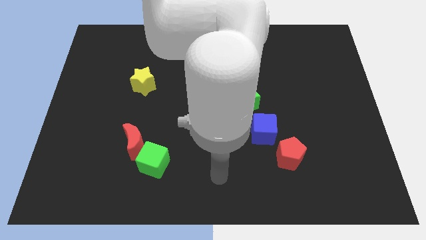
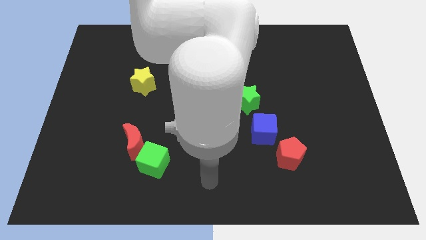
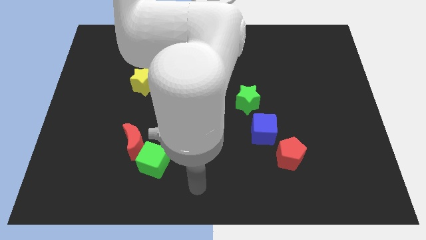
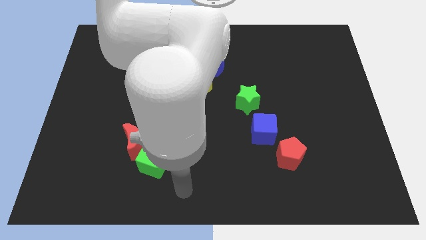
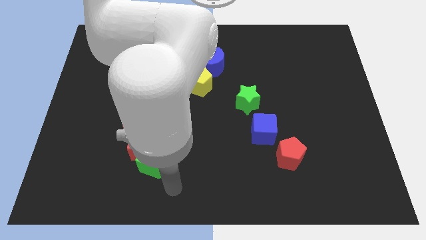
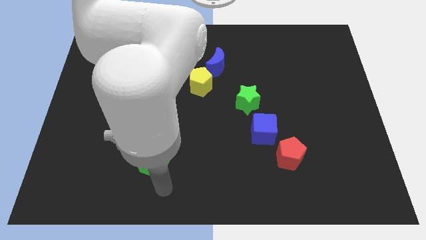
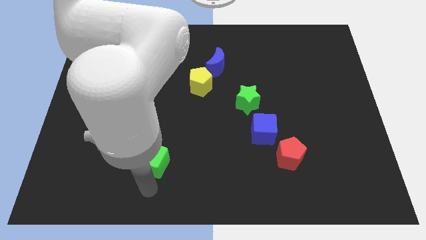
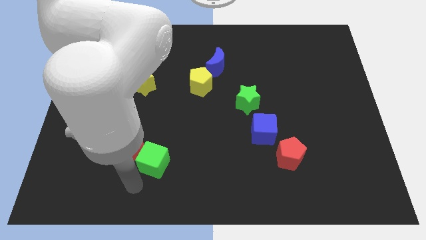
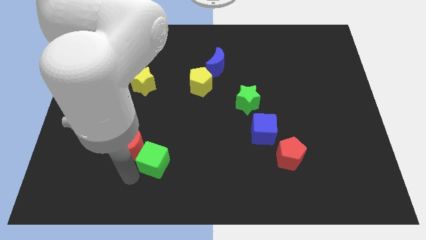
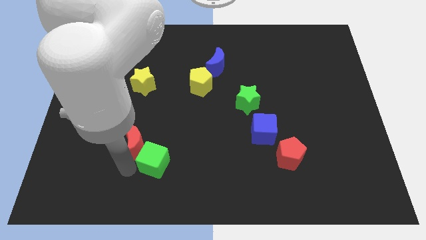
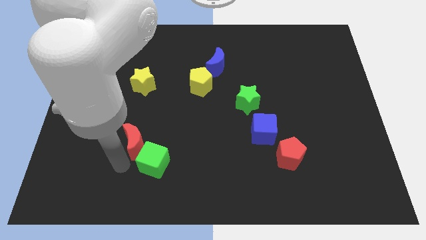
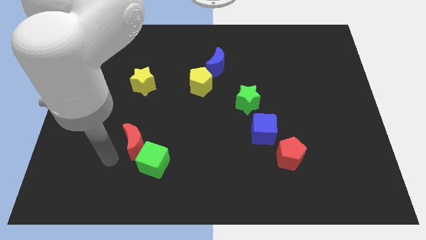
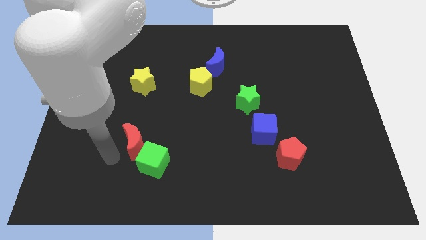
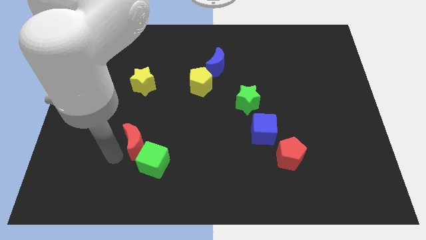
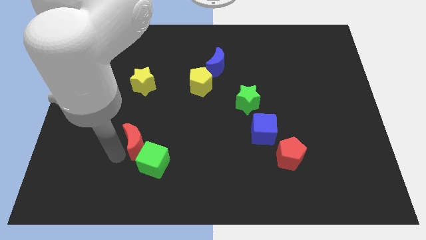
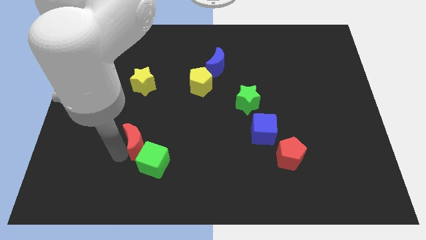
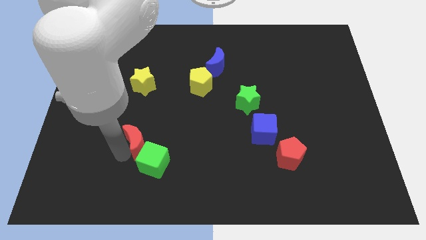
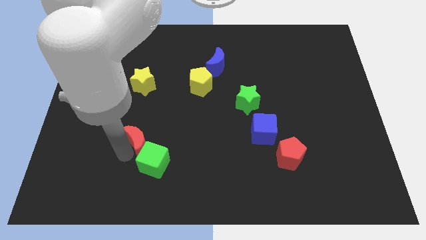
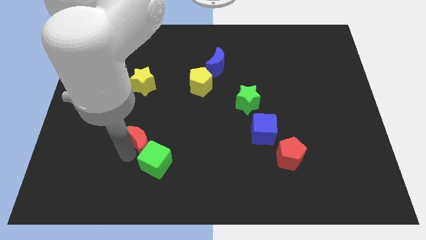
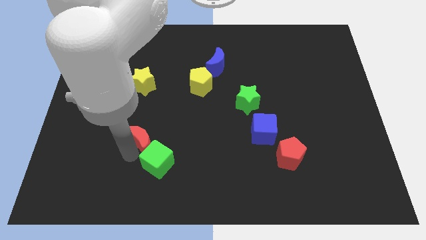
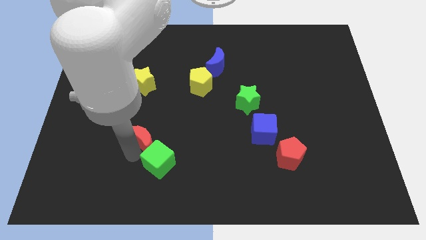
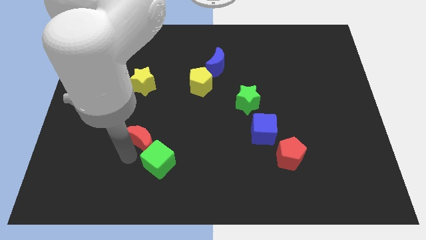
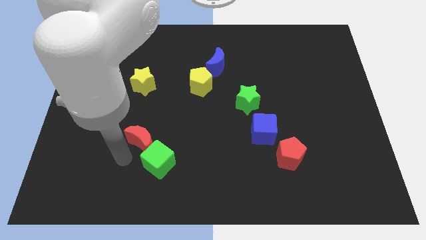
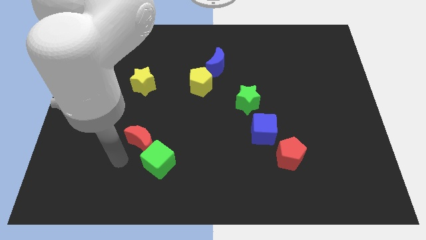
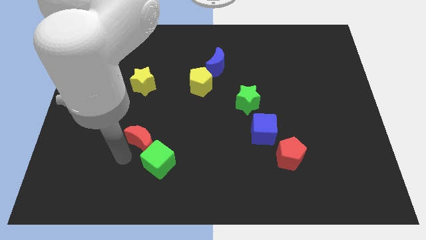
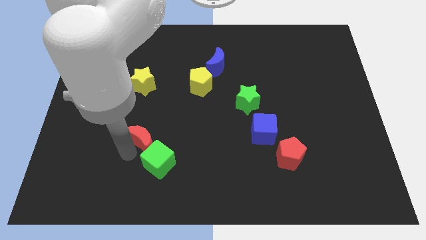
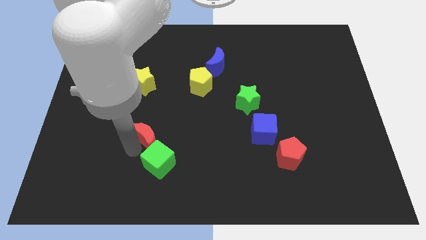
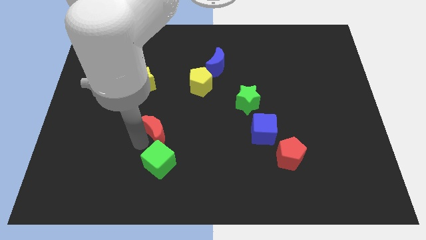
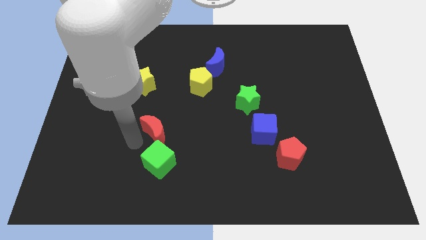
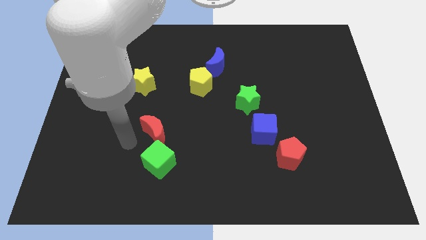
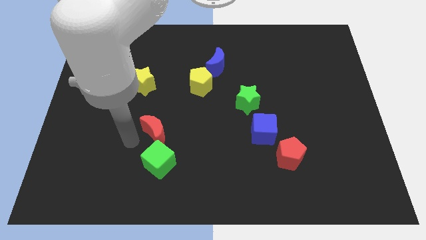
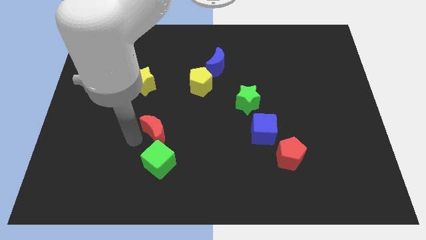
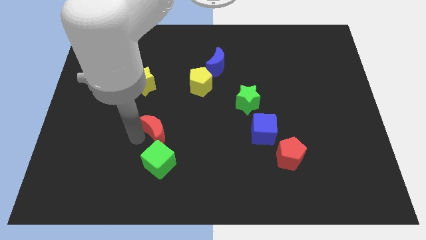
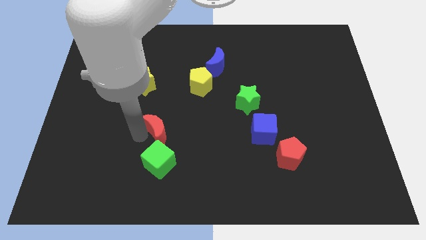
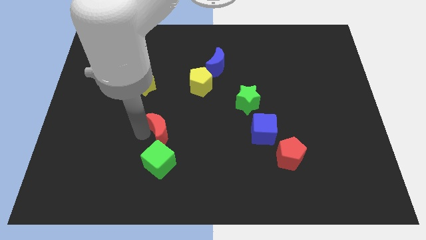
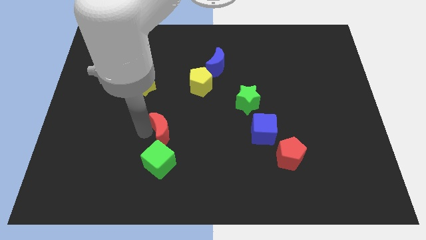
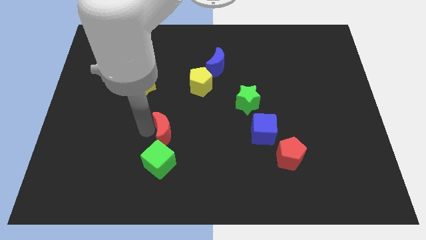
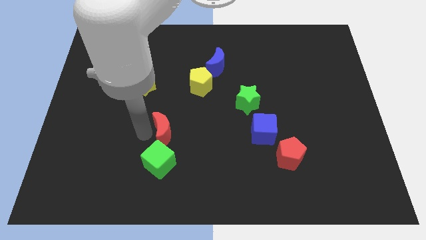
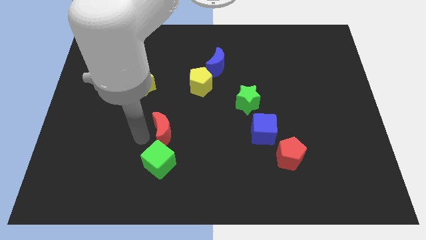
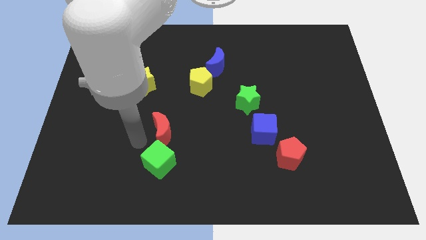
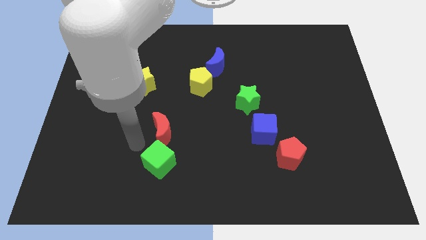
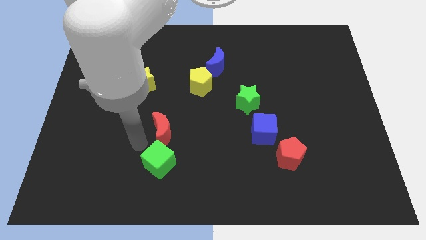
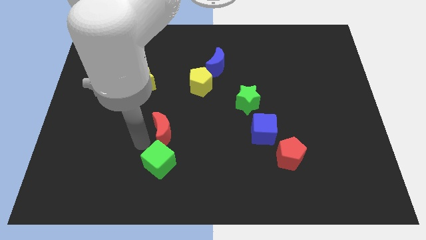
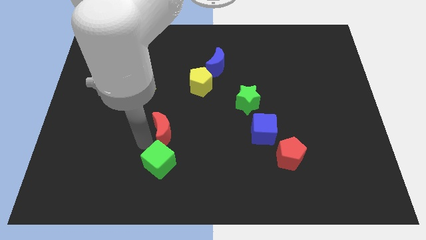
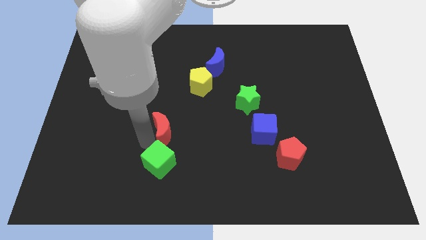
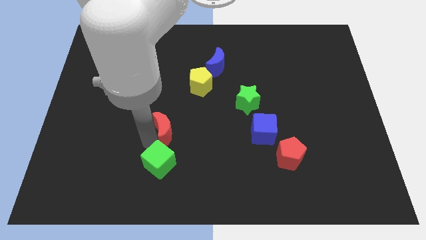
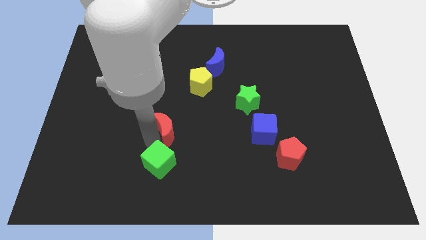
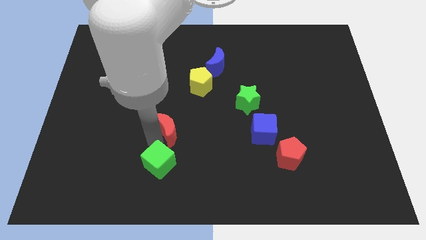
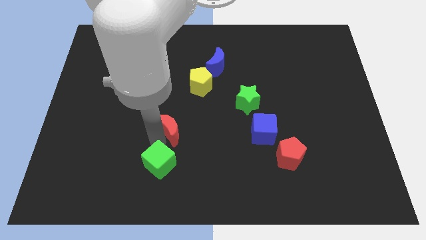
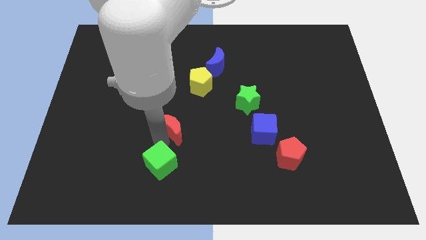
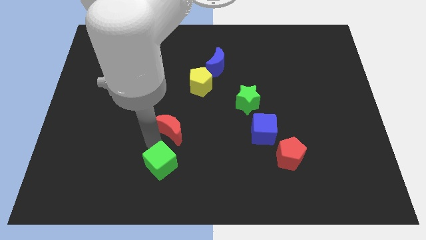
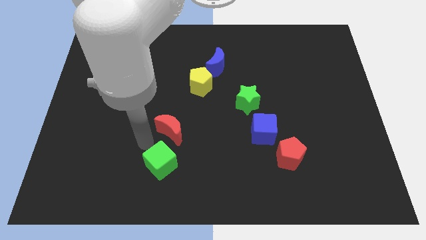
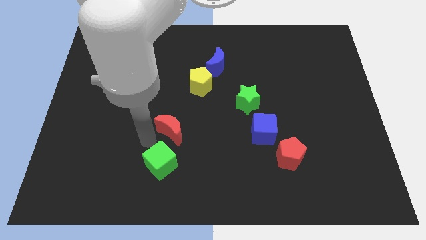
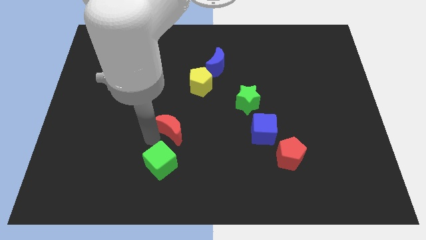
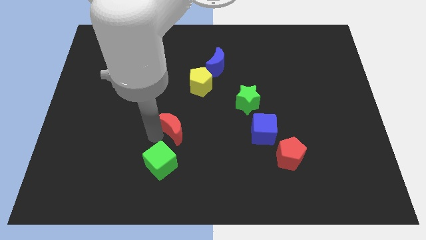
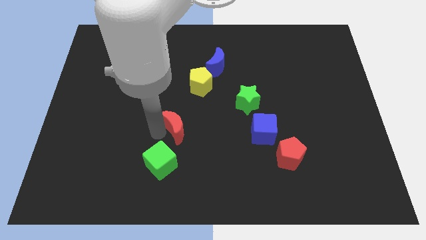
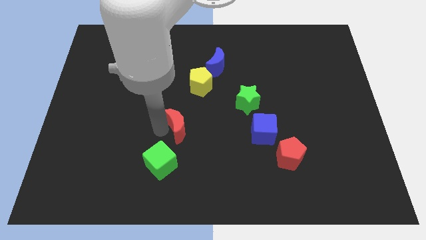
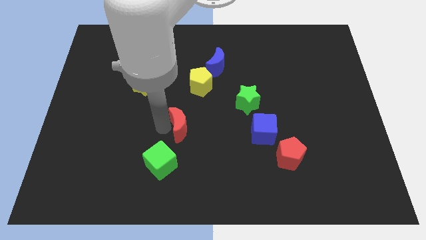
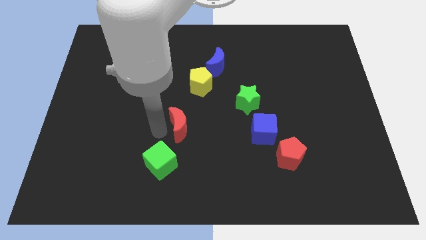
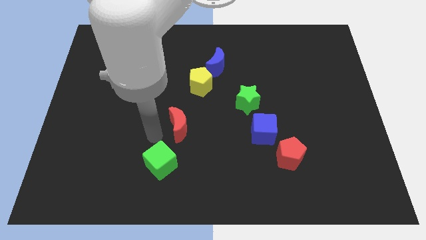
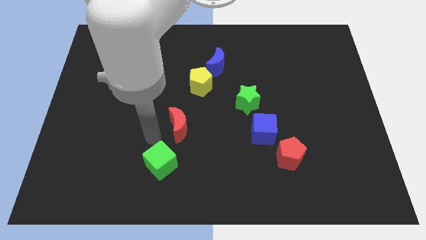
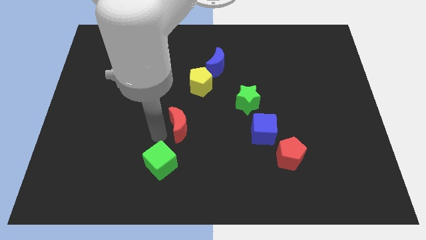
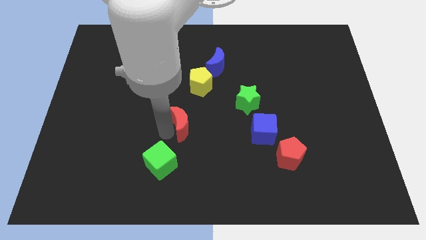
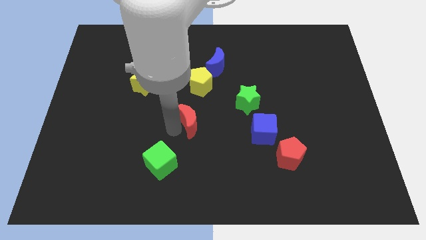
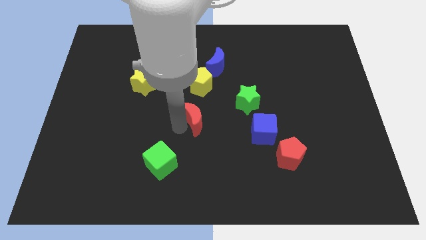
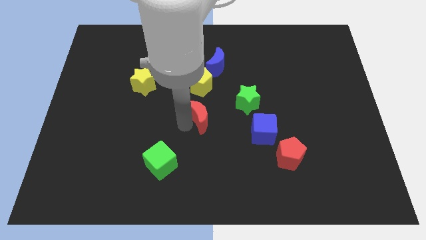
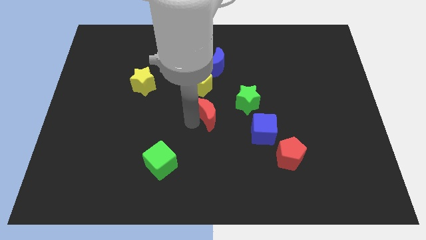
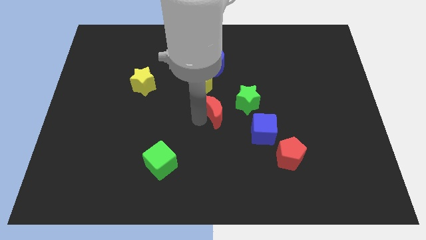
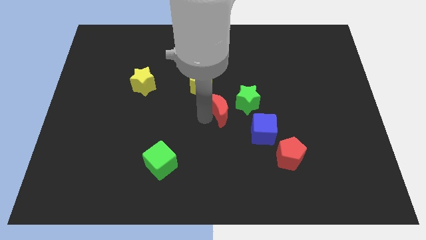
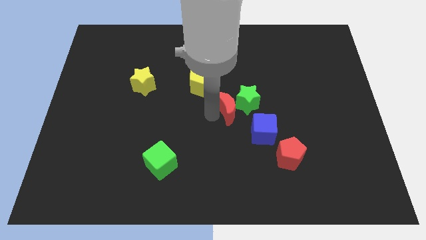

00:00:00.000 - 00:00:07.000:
move the red moon close to the green star

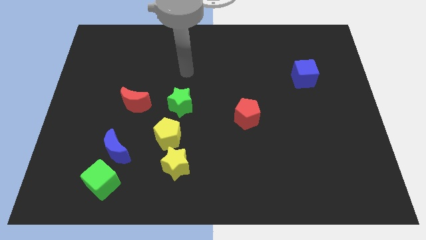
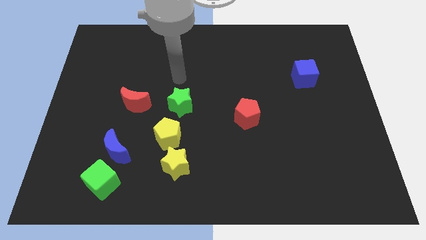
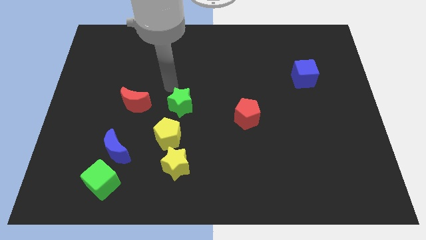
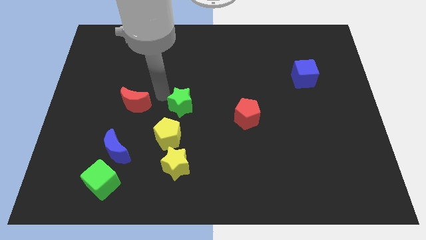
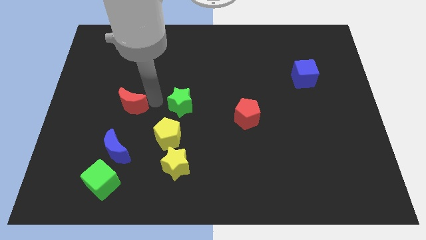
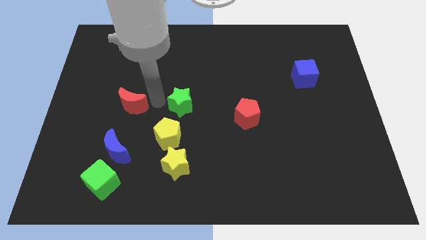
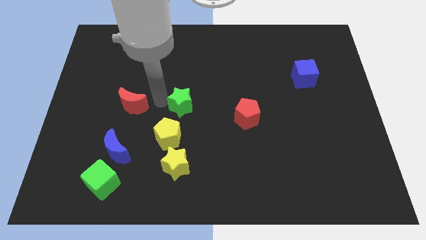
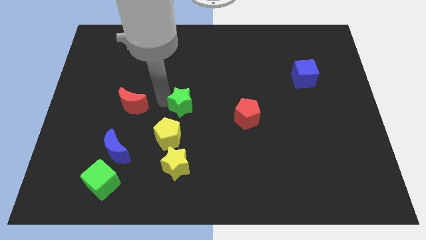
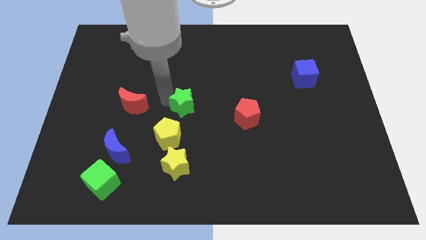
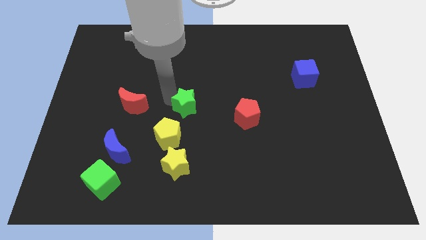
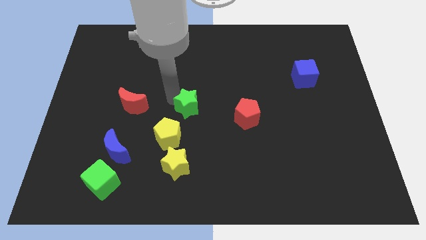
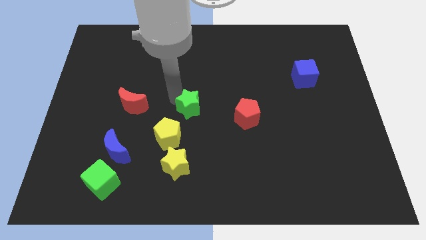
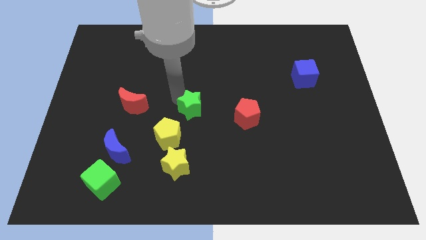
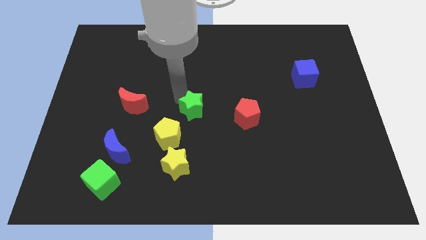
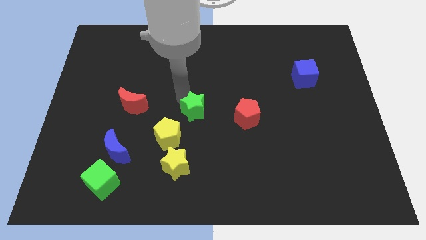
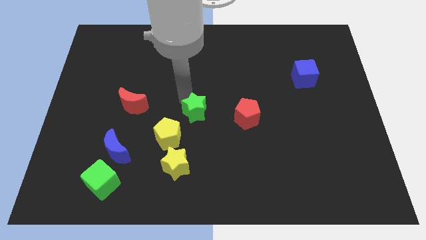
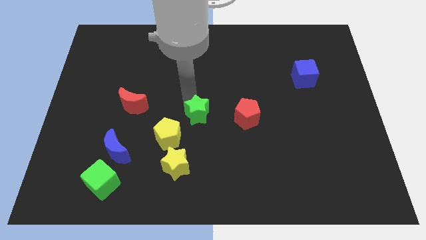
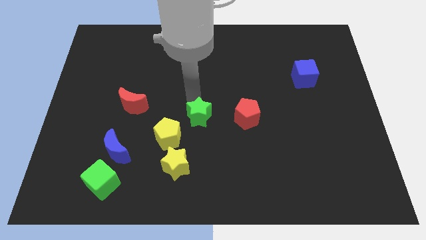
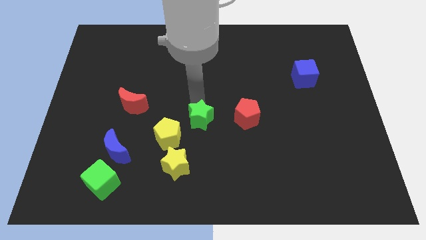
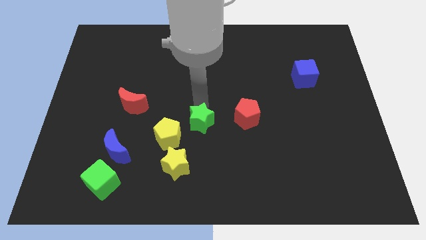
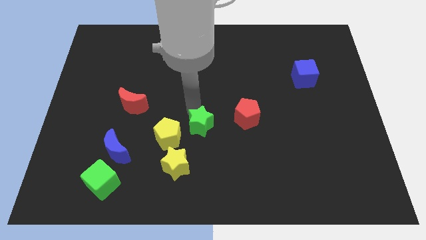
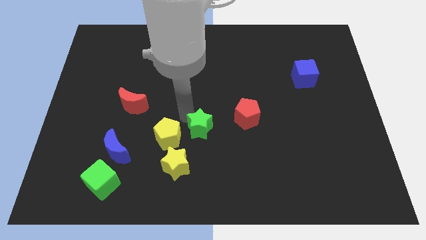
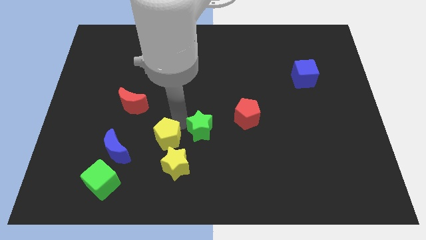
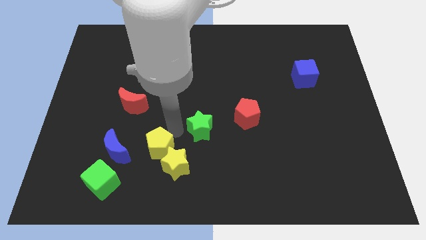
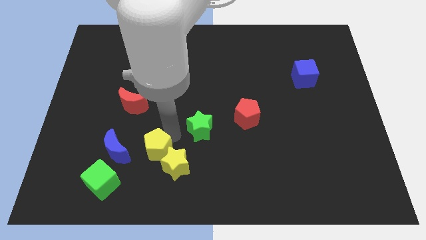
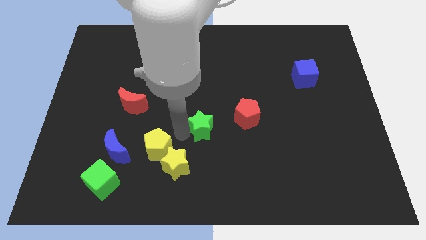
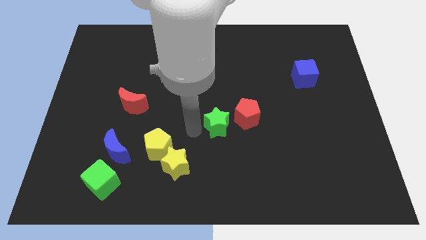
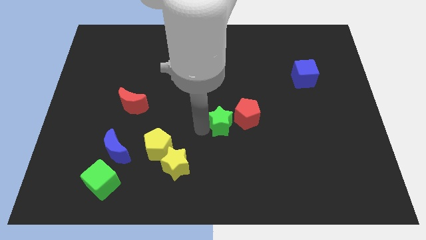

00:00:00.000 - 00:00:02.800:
move the green star next to the red pentagon
